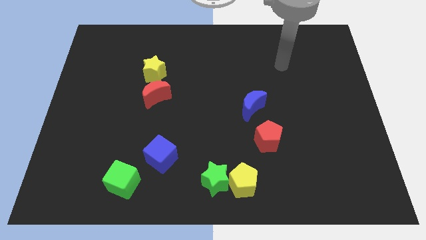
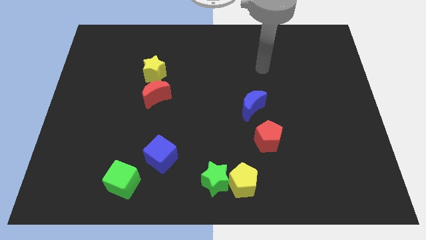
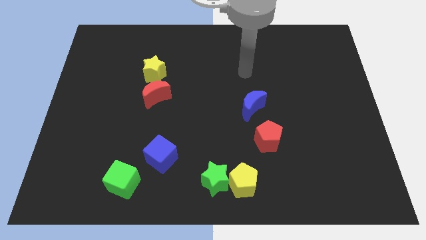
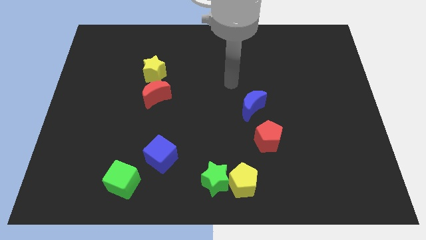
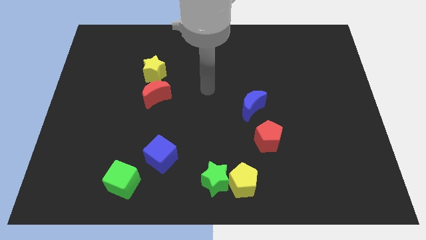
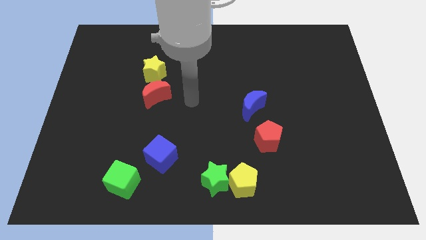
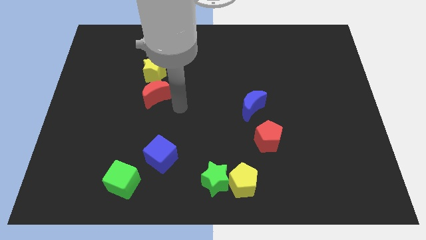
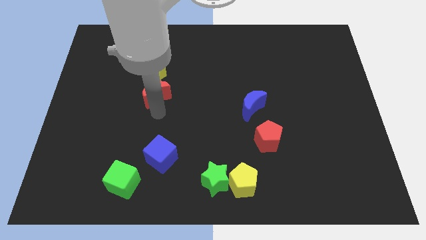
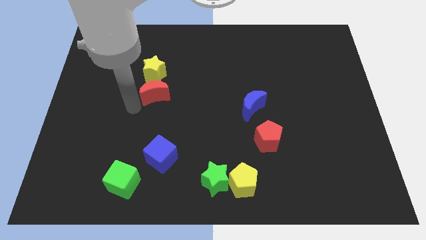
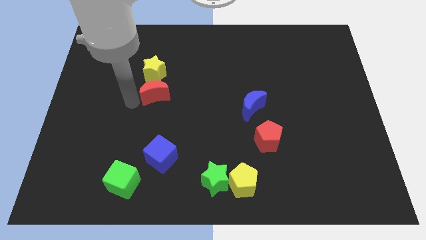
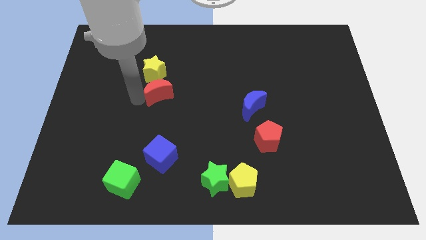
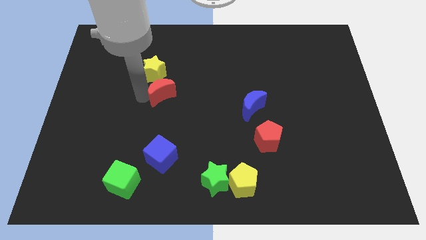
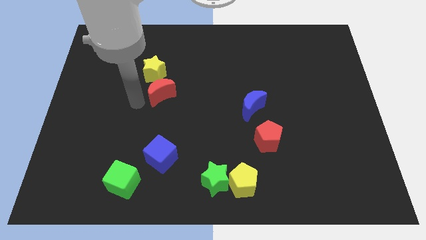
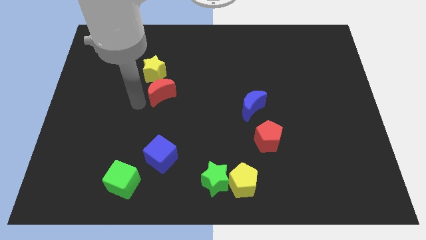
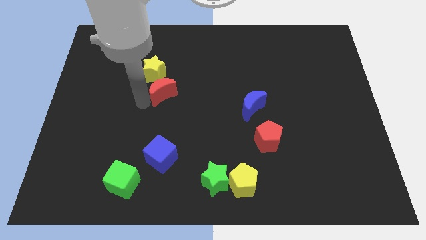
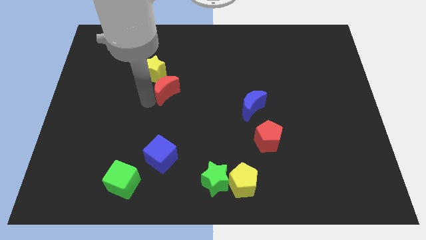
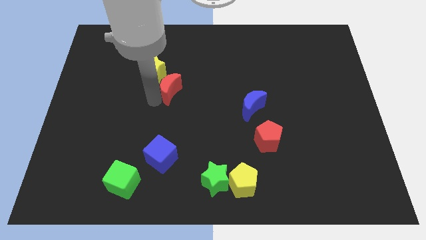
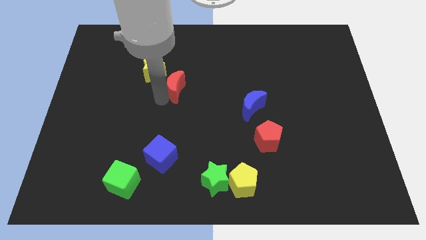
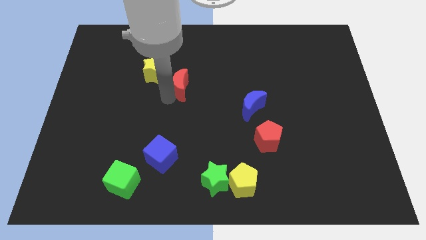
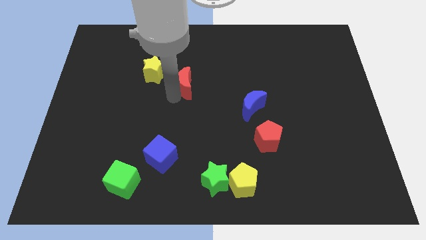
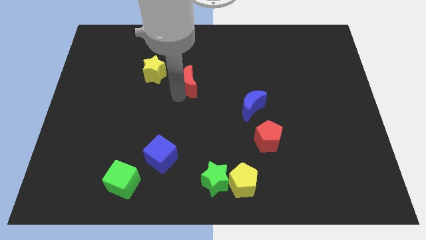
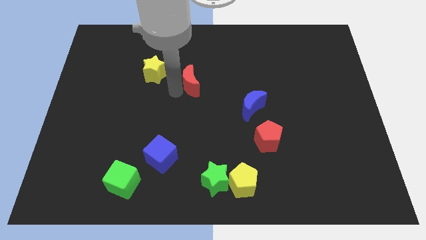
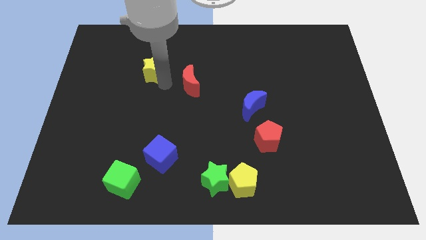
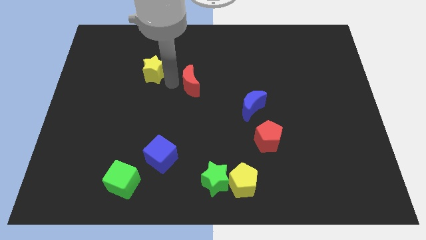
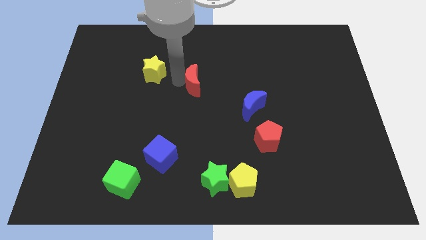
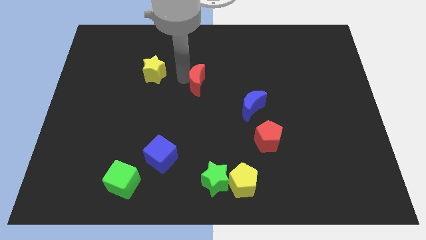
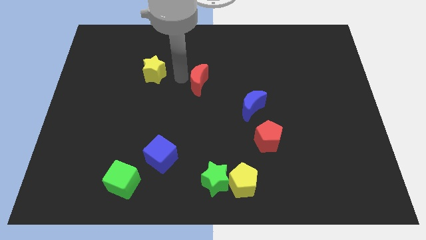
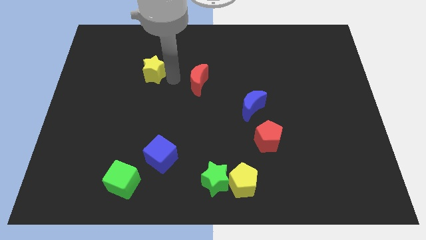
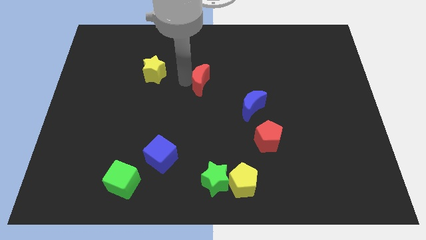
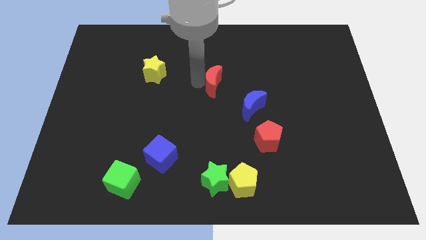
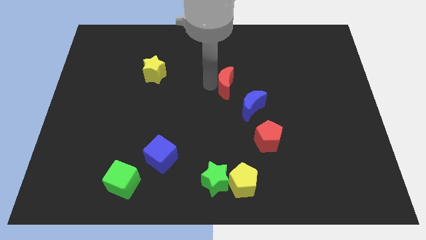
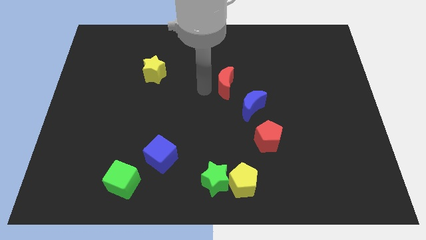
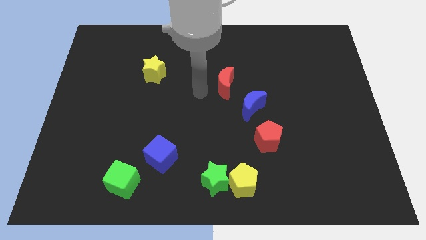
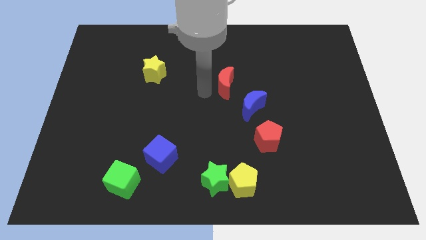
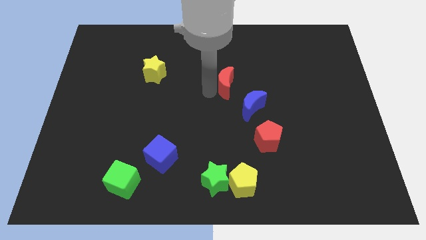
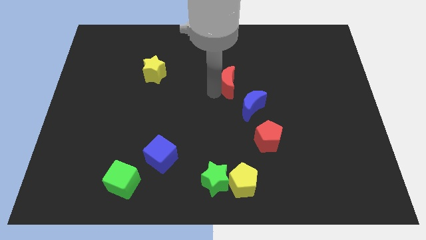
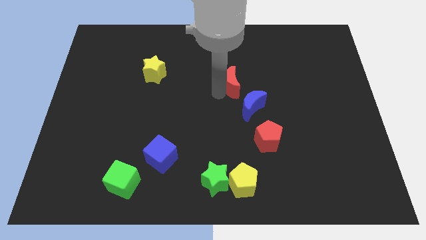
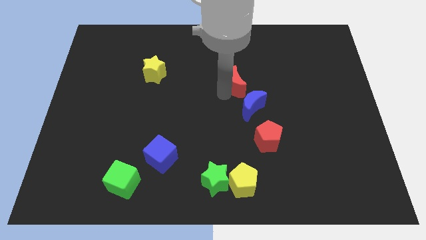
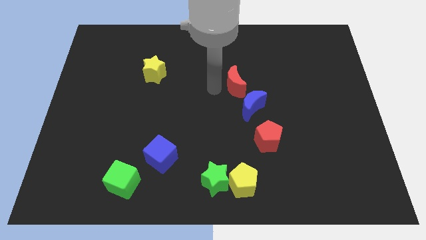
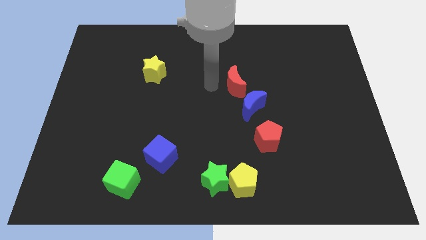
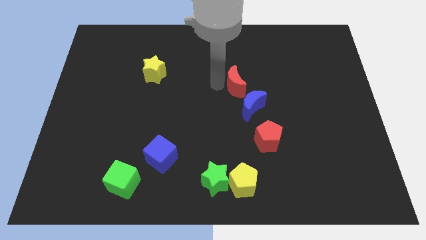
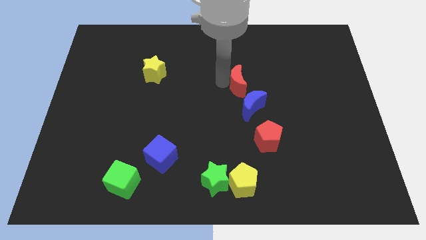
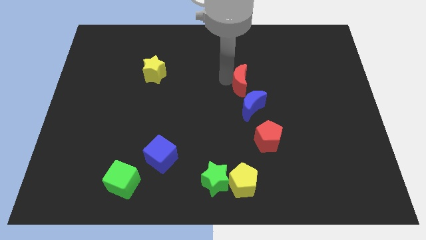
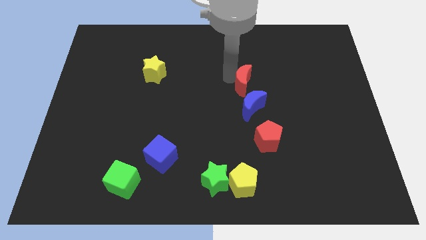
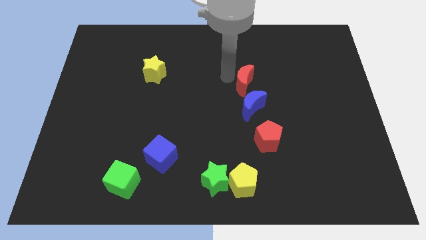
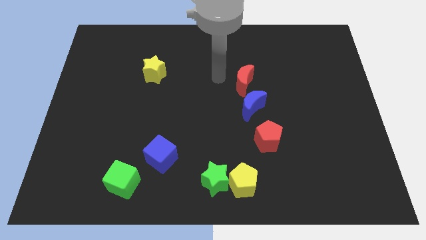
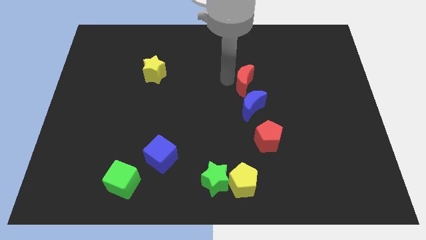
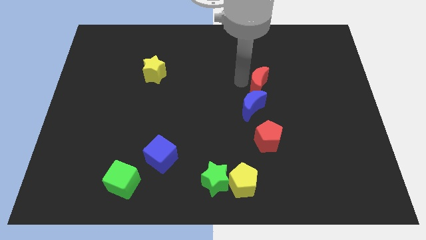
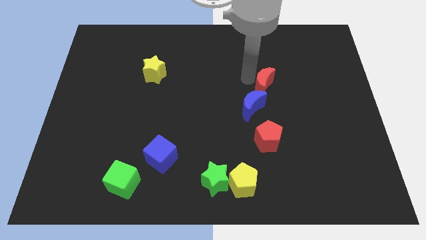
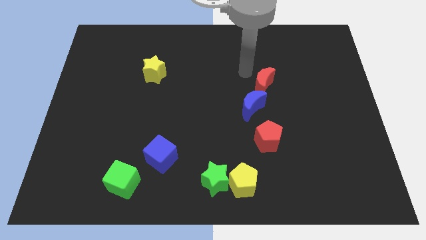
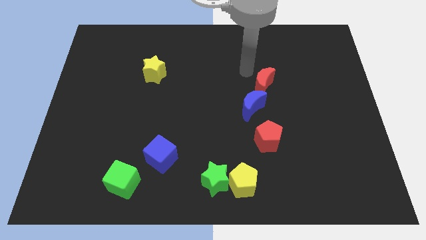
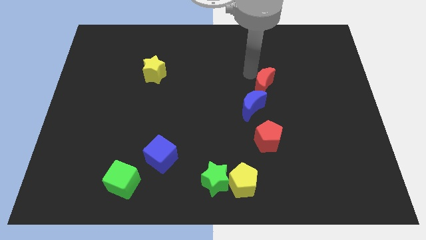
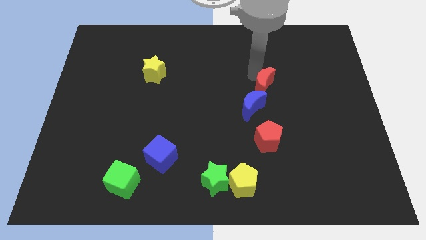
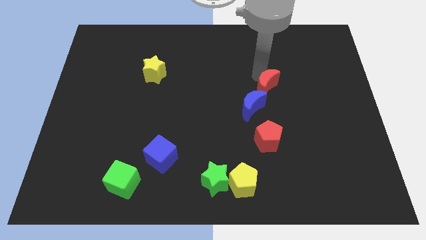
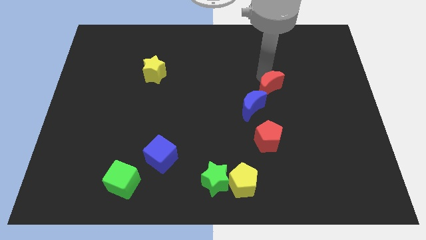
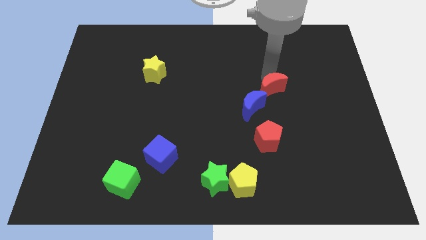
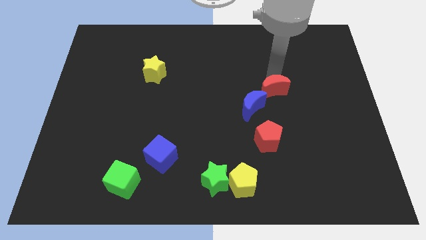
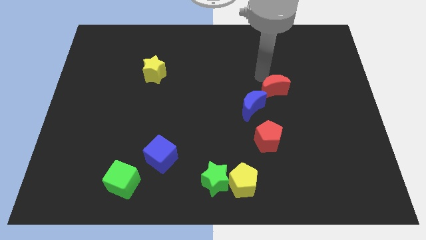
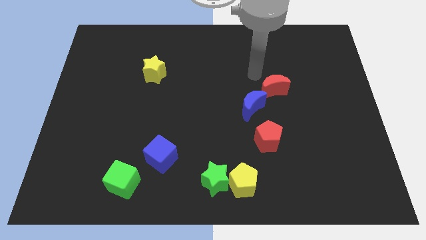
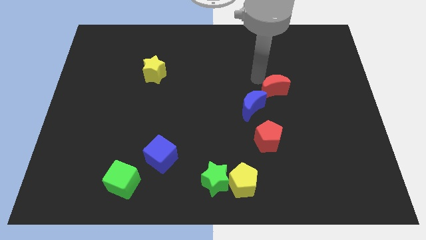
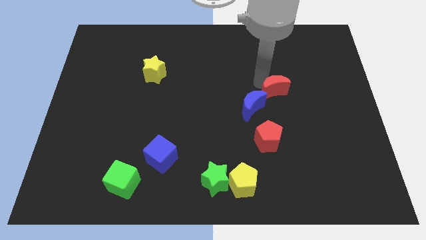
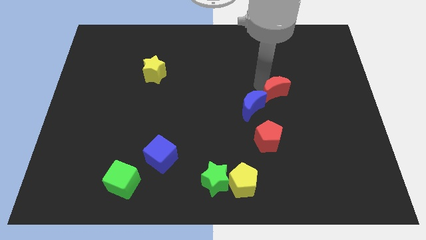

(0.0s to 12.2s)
put the red moon just right of the blue moon

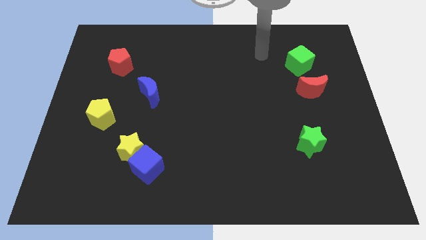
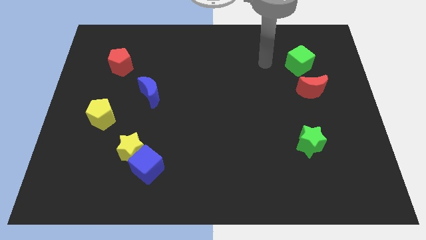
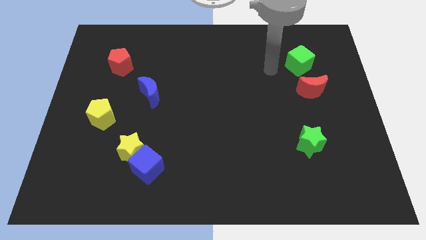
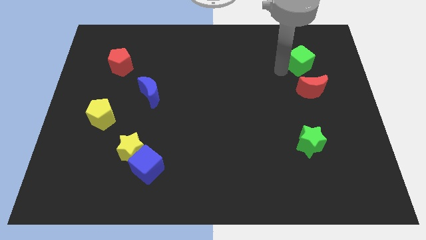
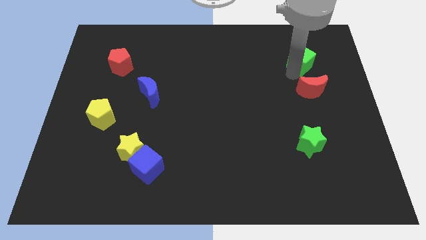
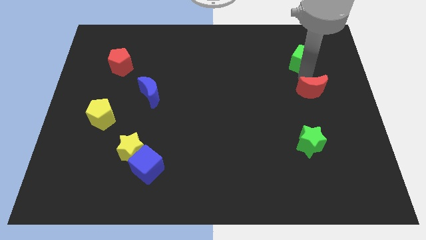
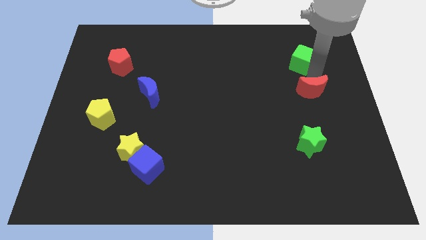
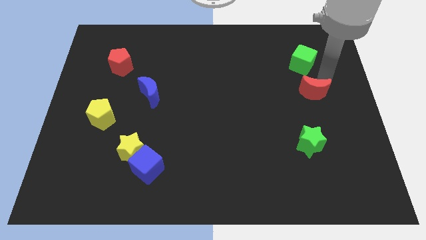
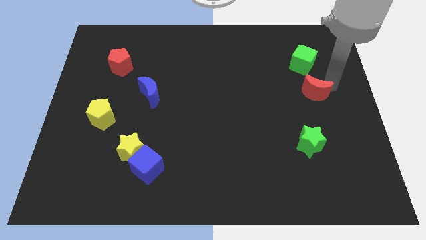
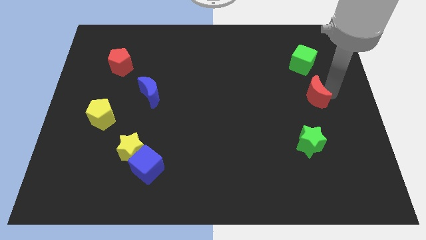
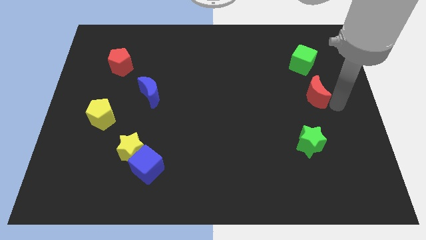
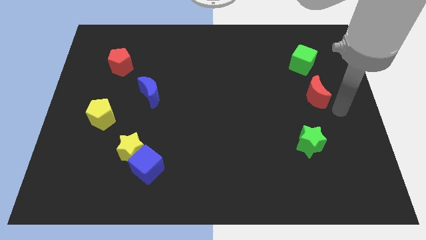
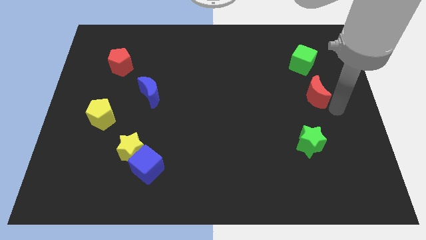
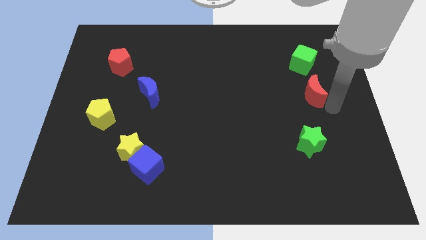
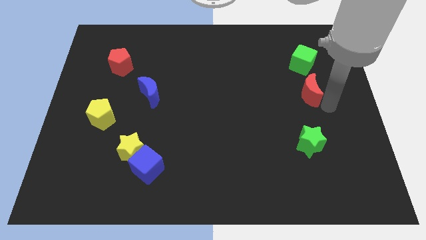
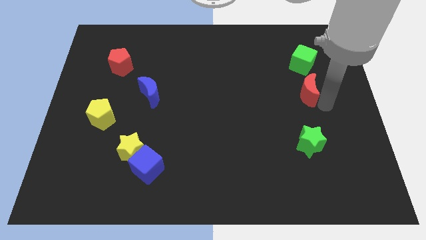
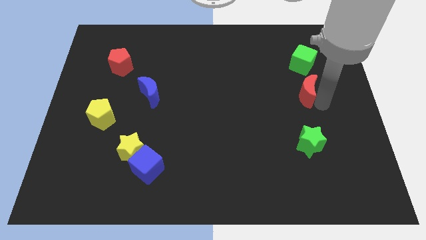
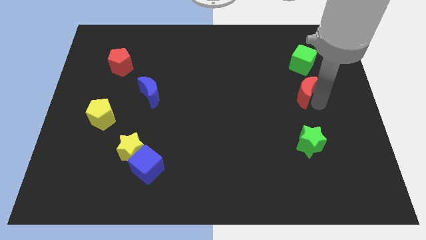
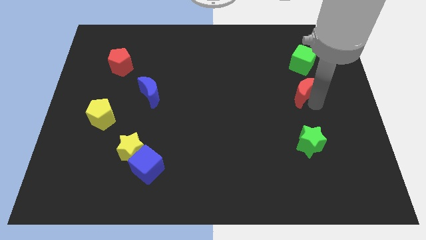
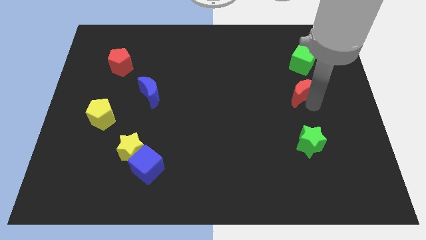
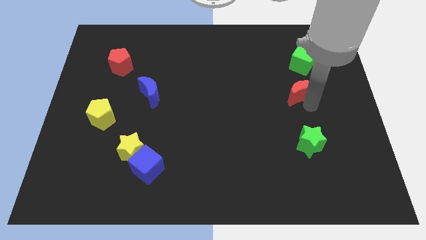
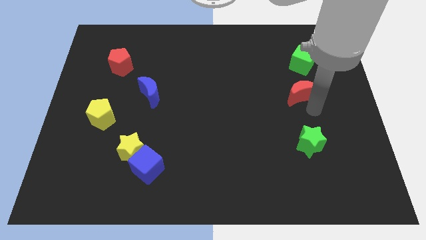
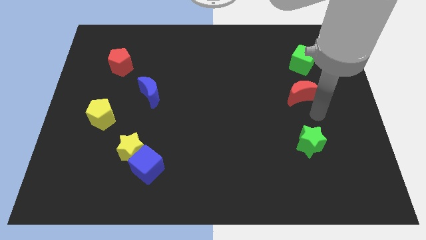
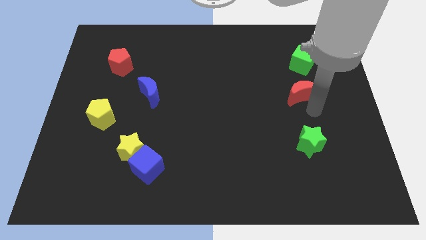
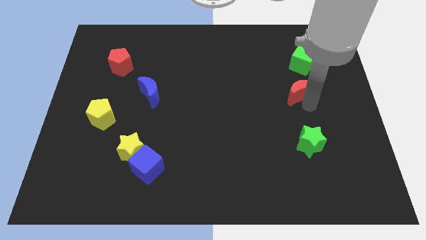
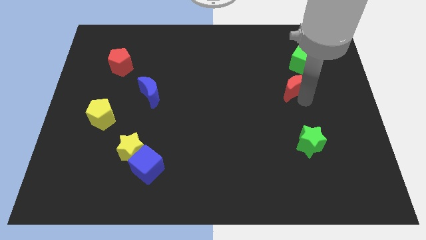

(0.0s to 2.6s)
push the red moon to the bottom left side of the green cube
